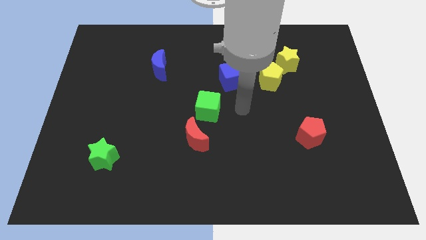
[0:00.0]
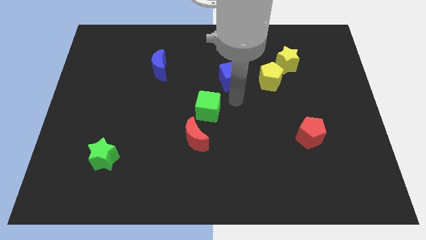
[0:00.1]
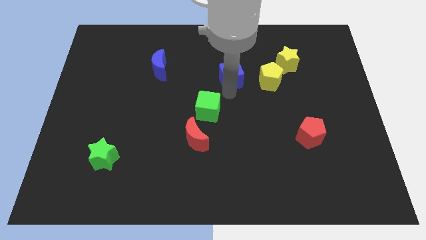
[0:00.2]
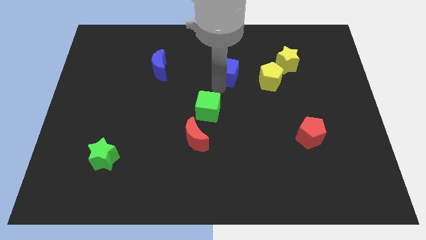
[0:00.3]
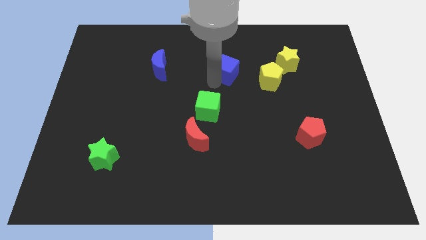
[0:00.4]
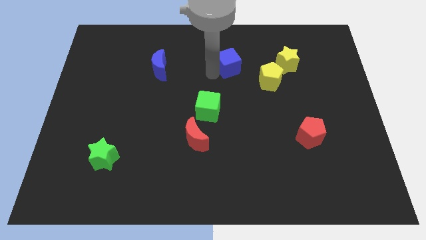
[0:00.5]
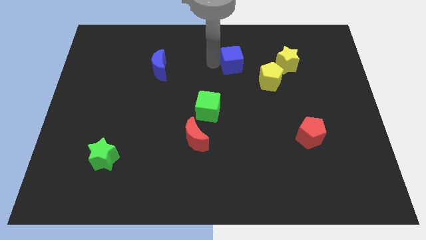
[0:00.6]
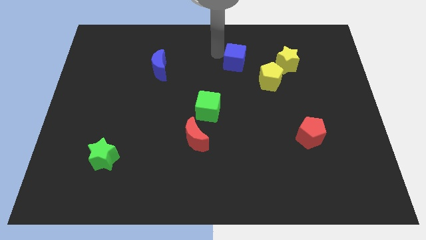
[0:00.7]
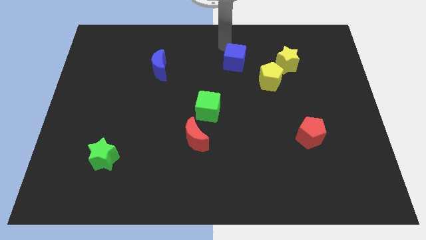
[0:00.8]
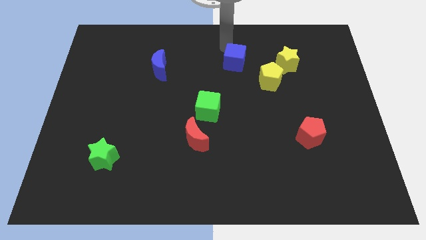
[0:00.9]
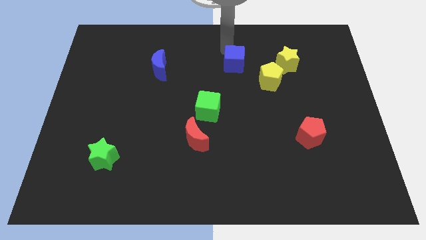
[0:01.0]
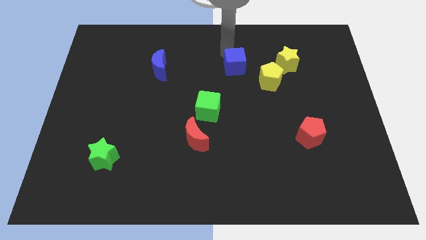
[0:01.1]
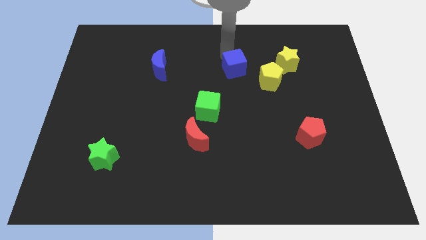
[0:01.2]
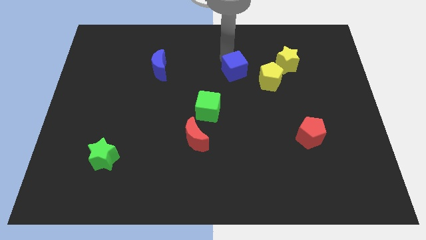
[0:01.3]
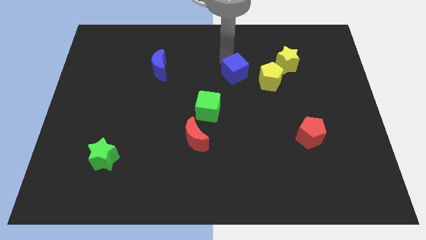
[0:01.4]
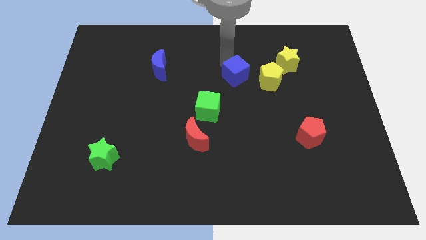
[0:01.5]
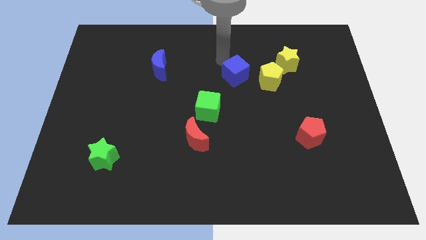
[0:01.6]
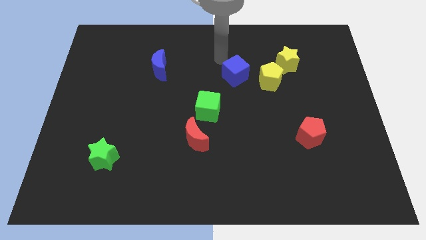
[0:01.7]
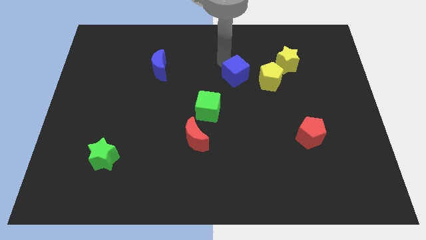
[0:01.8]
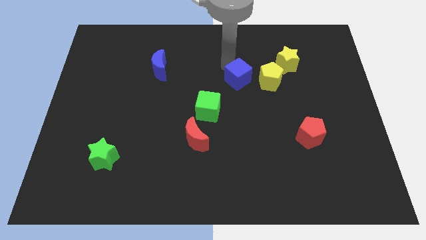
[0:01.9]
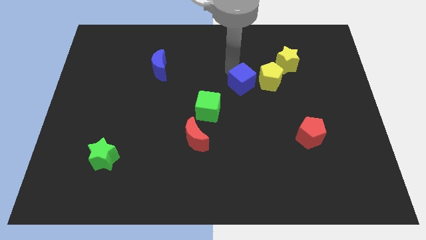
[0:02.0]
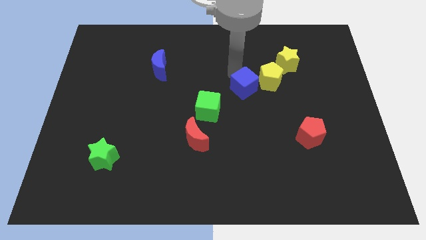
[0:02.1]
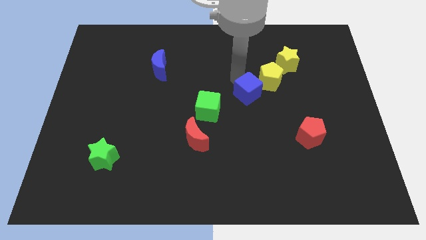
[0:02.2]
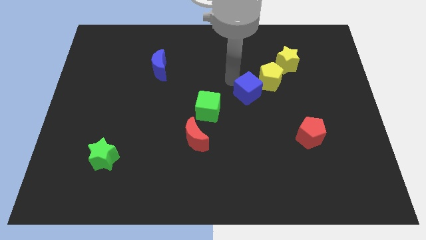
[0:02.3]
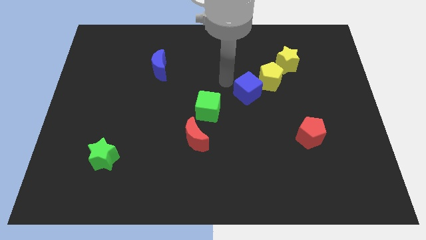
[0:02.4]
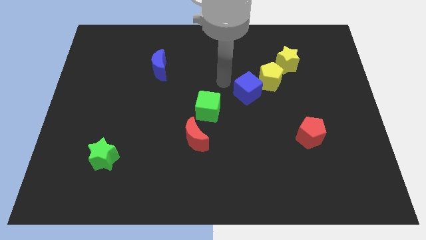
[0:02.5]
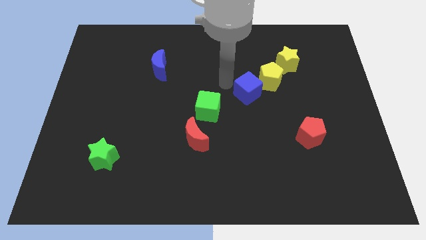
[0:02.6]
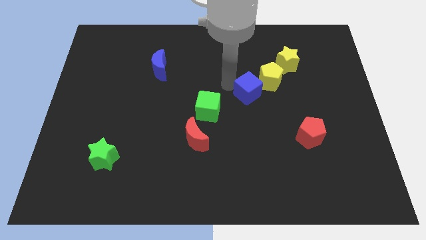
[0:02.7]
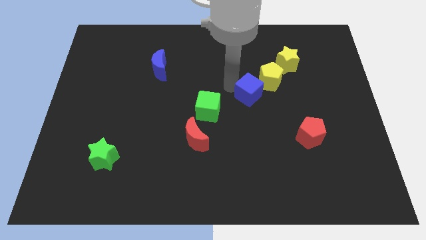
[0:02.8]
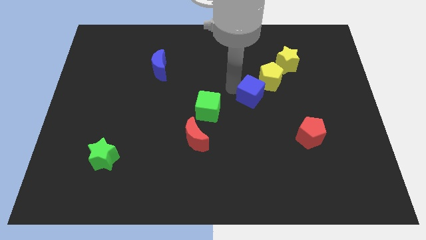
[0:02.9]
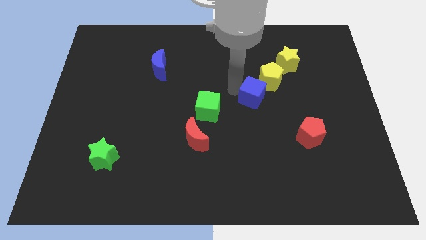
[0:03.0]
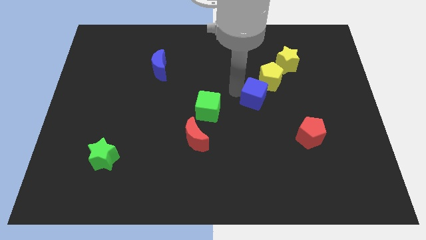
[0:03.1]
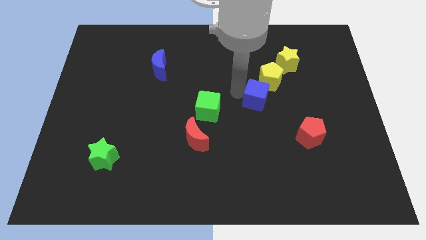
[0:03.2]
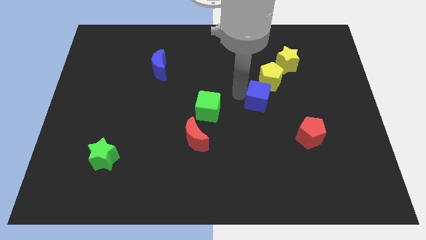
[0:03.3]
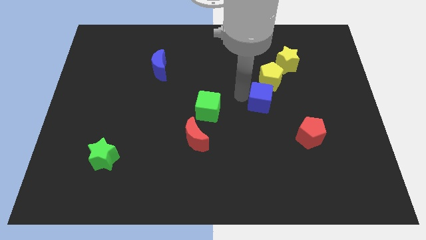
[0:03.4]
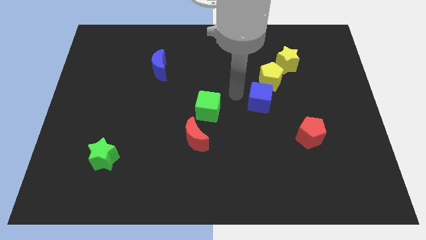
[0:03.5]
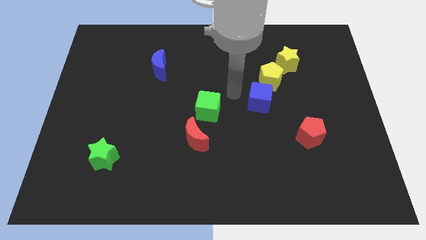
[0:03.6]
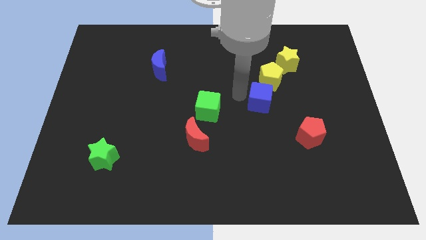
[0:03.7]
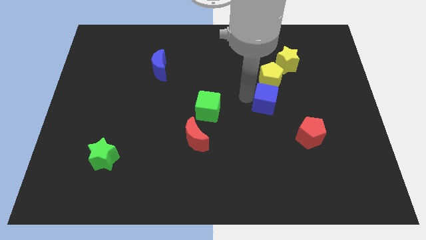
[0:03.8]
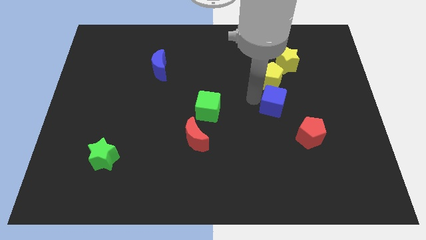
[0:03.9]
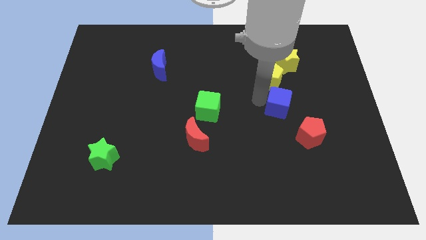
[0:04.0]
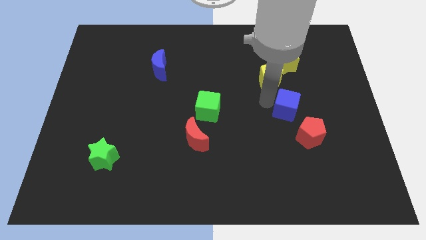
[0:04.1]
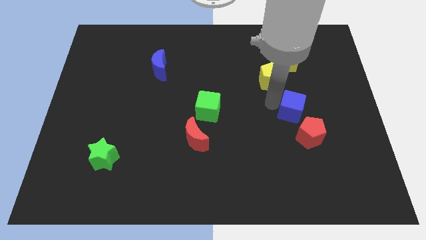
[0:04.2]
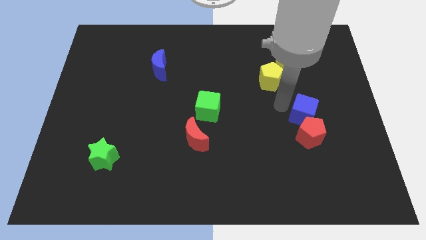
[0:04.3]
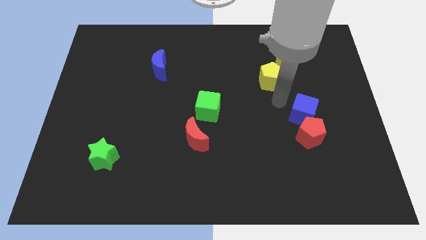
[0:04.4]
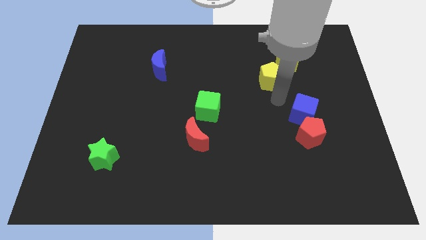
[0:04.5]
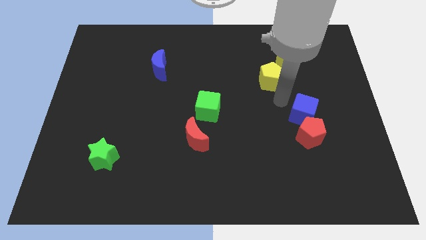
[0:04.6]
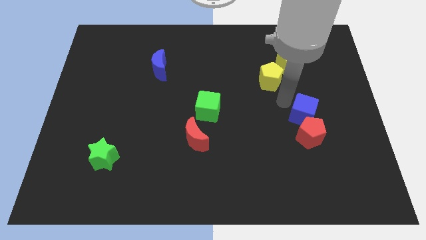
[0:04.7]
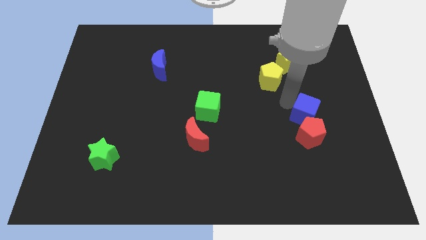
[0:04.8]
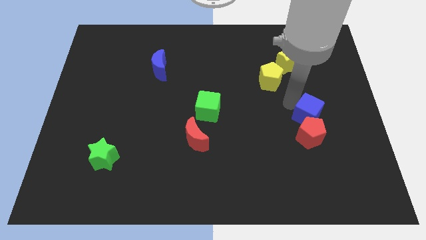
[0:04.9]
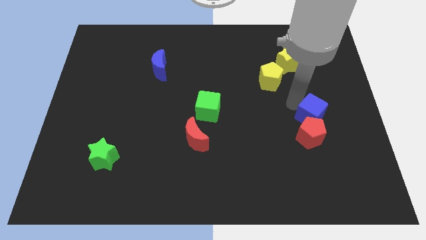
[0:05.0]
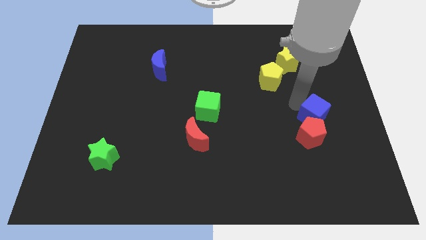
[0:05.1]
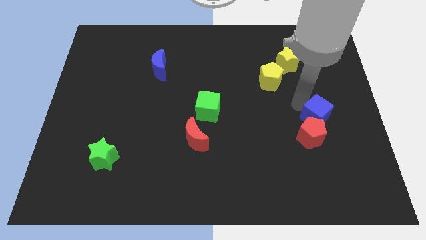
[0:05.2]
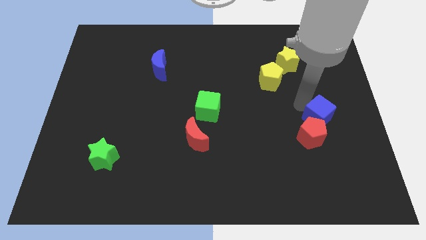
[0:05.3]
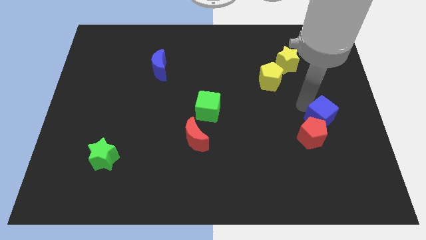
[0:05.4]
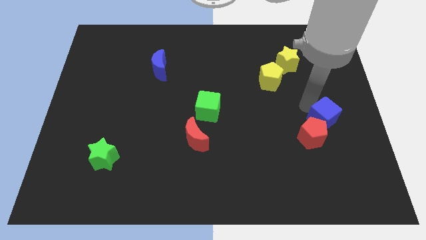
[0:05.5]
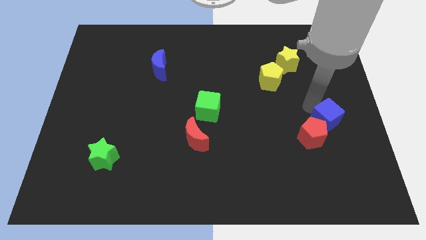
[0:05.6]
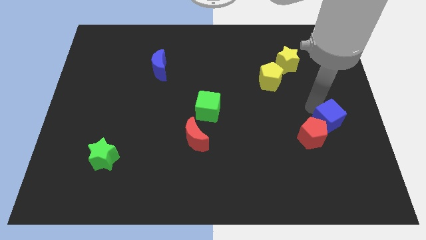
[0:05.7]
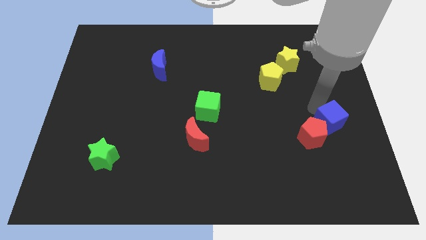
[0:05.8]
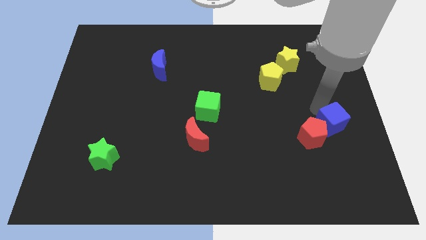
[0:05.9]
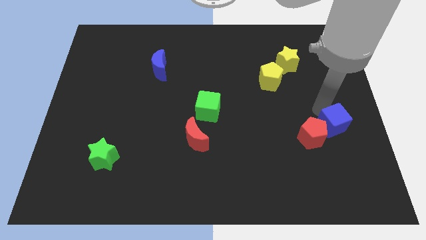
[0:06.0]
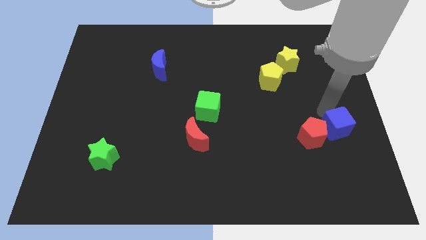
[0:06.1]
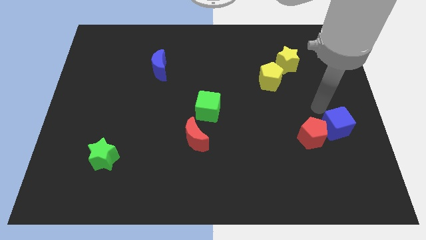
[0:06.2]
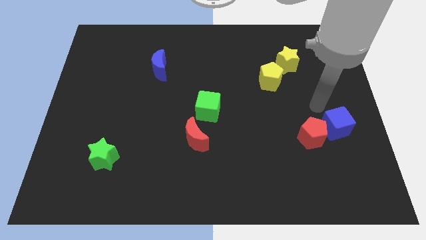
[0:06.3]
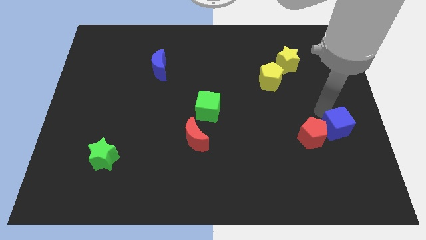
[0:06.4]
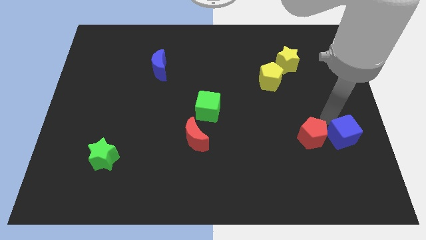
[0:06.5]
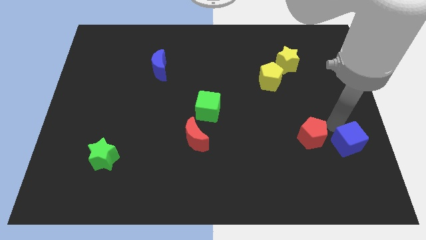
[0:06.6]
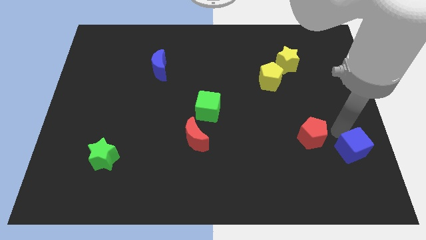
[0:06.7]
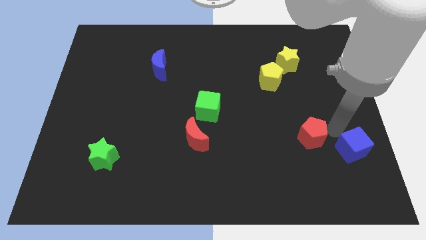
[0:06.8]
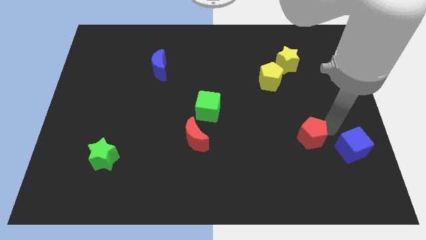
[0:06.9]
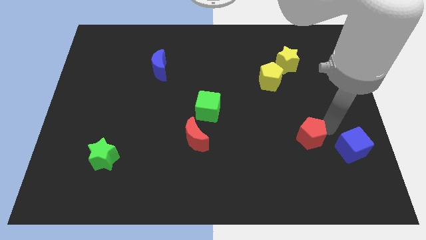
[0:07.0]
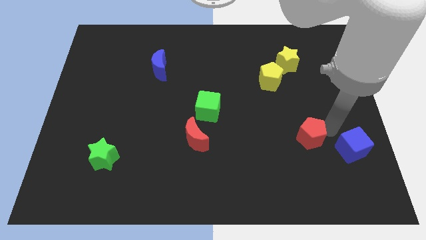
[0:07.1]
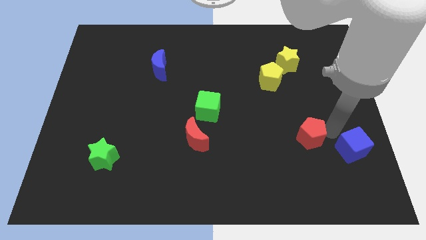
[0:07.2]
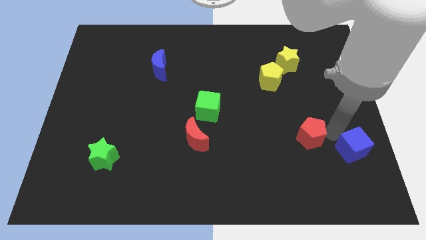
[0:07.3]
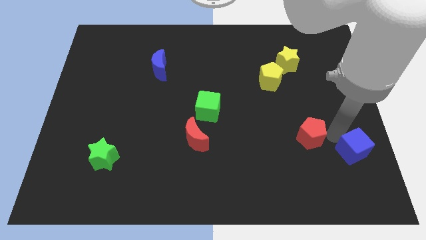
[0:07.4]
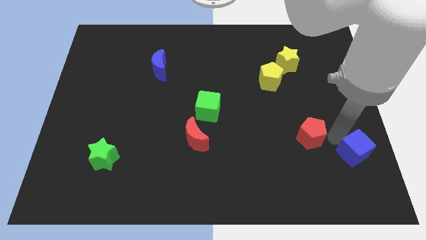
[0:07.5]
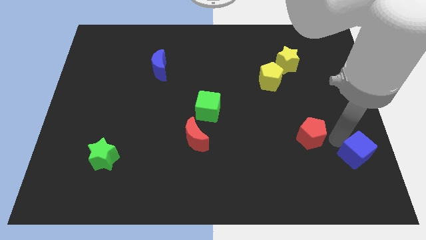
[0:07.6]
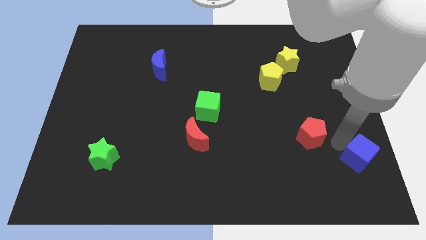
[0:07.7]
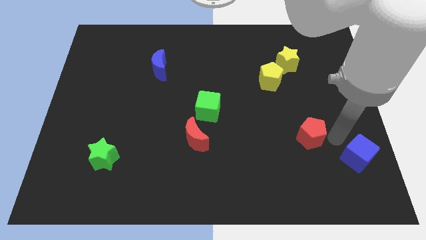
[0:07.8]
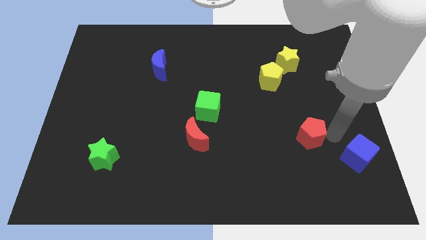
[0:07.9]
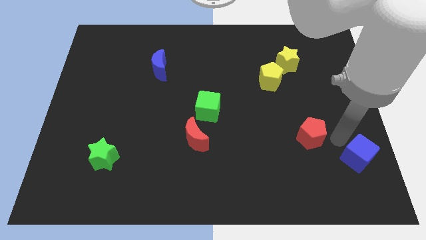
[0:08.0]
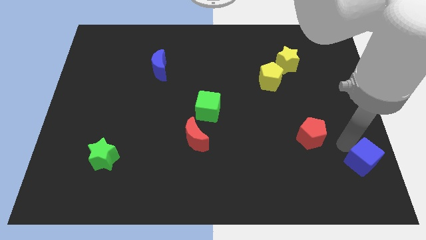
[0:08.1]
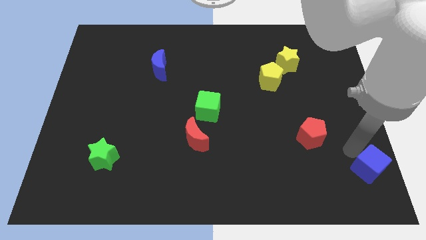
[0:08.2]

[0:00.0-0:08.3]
slide the blue cube to the bottom right of the board
